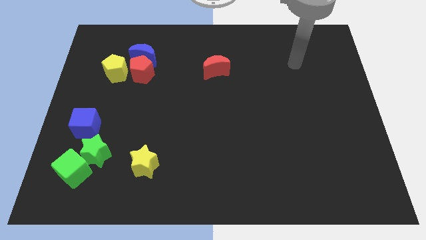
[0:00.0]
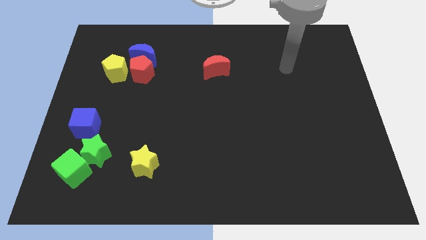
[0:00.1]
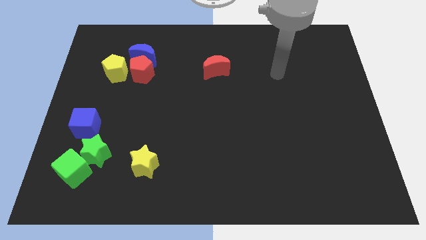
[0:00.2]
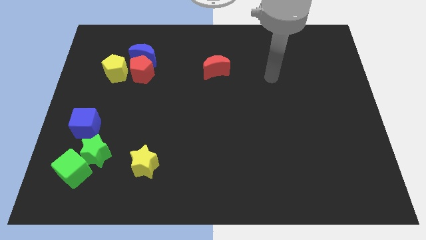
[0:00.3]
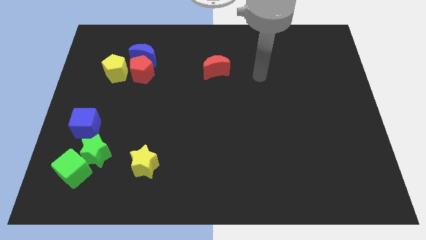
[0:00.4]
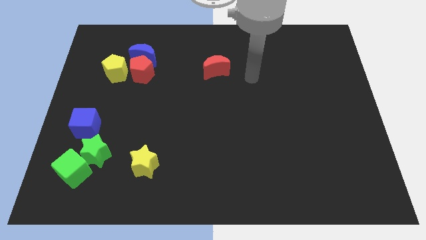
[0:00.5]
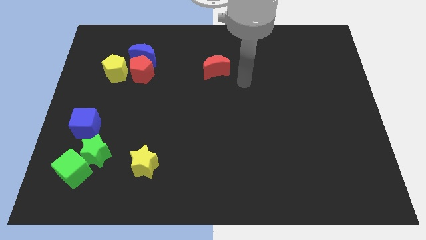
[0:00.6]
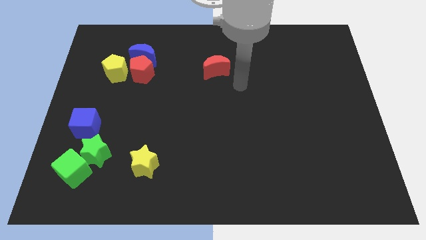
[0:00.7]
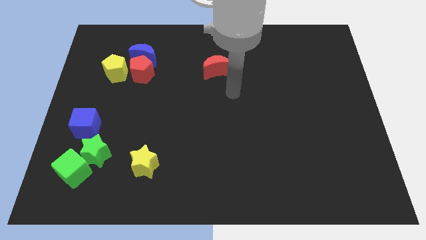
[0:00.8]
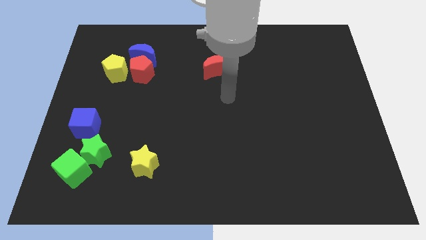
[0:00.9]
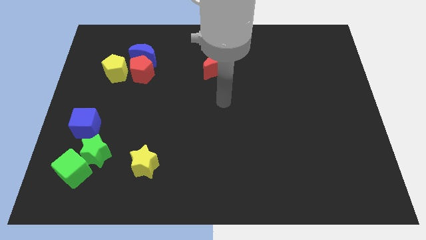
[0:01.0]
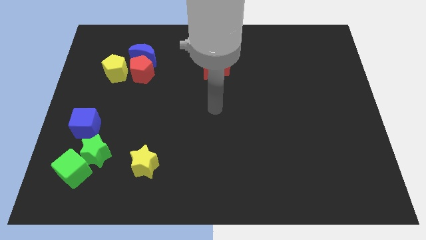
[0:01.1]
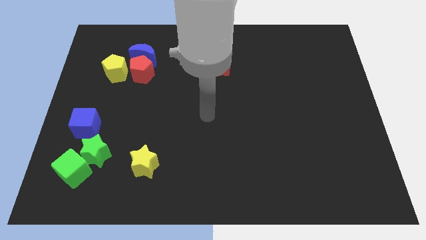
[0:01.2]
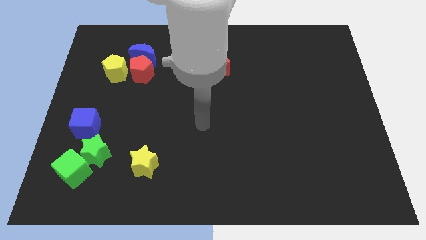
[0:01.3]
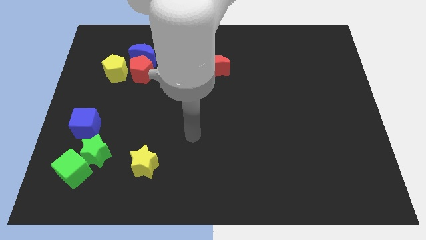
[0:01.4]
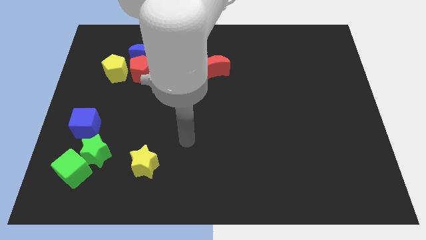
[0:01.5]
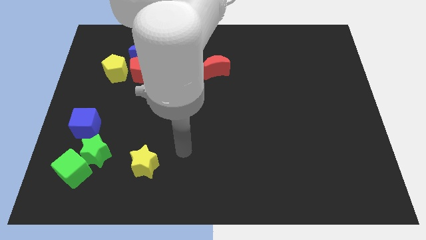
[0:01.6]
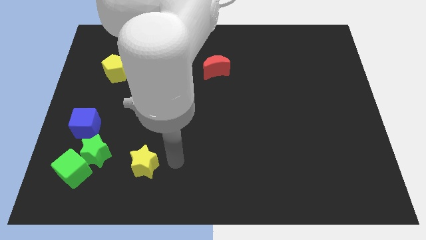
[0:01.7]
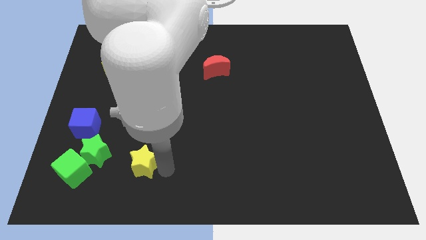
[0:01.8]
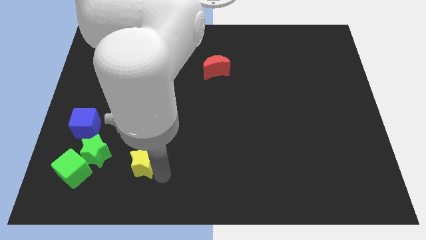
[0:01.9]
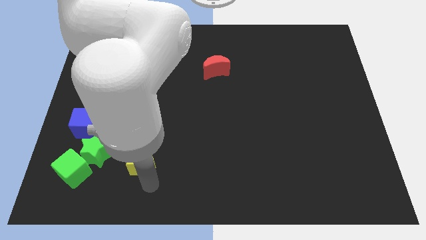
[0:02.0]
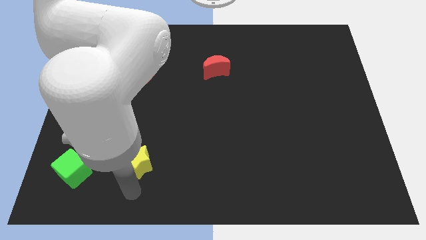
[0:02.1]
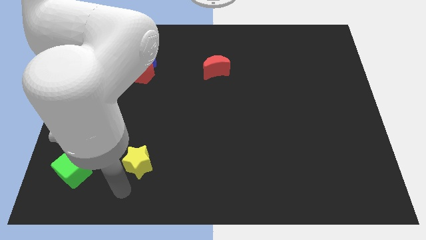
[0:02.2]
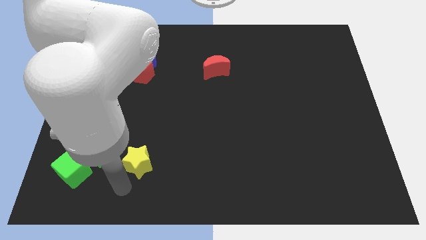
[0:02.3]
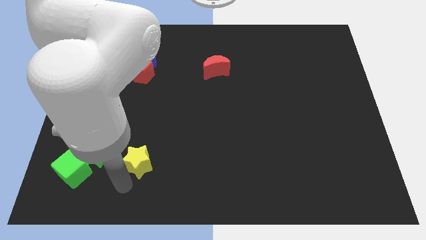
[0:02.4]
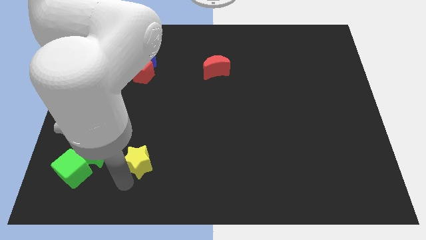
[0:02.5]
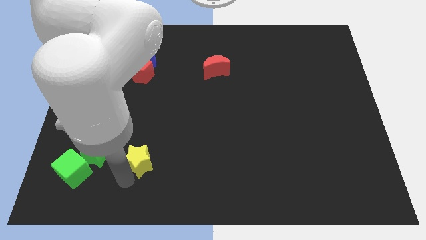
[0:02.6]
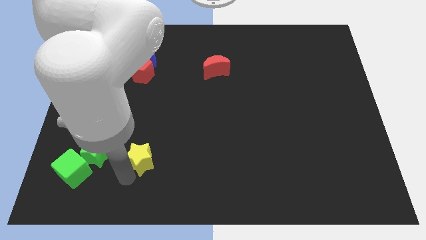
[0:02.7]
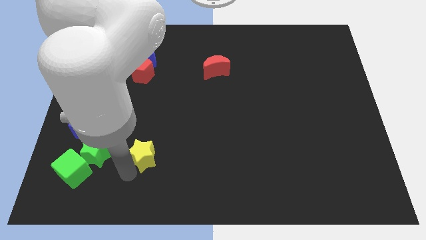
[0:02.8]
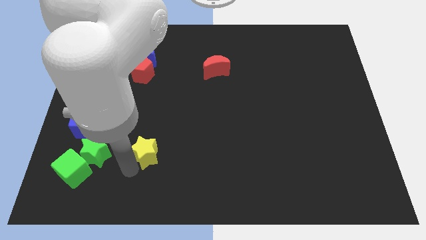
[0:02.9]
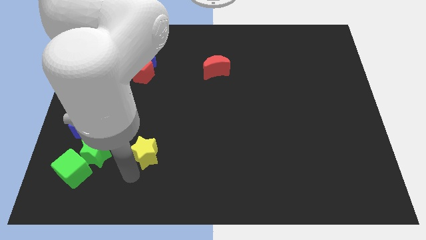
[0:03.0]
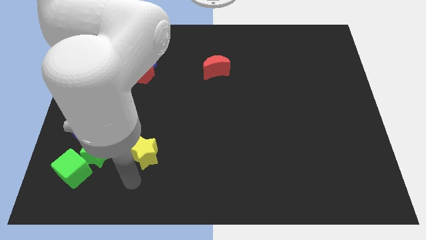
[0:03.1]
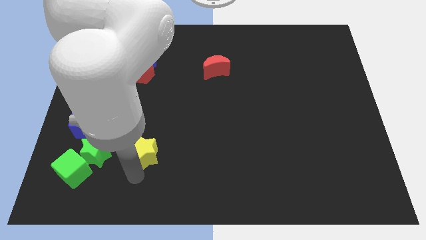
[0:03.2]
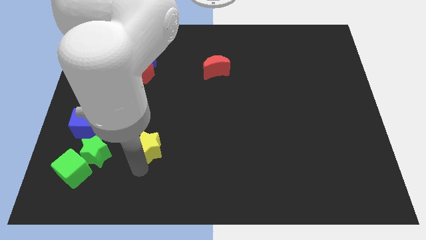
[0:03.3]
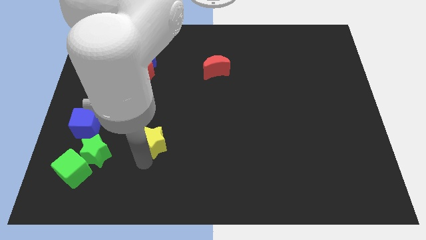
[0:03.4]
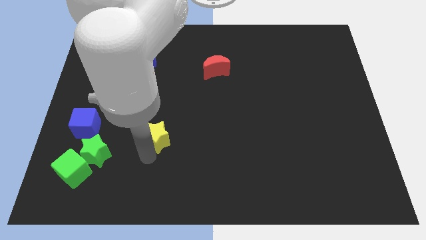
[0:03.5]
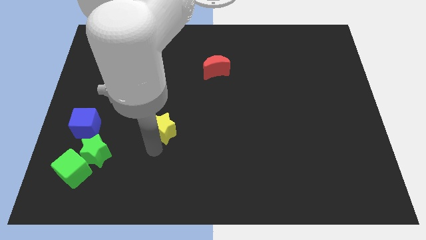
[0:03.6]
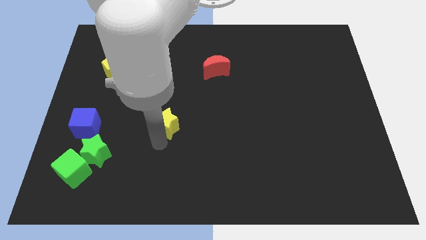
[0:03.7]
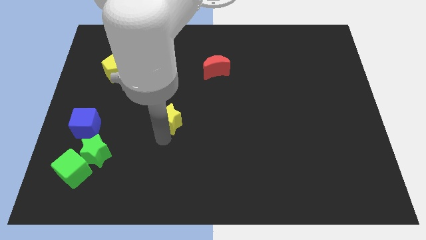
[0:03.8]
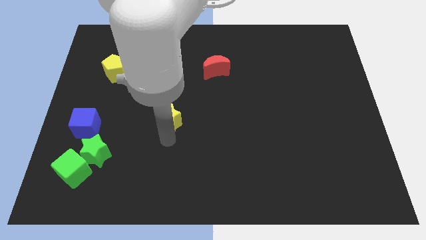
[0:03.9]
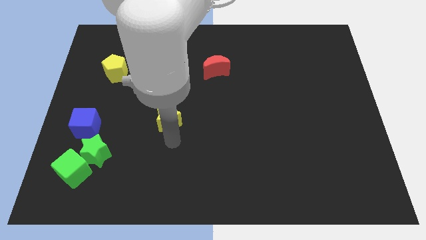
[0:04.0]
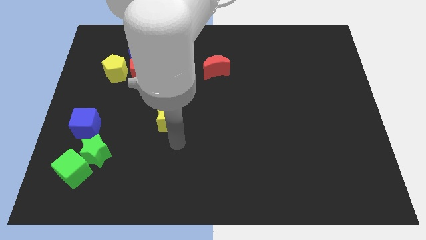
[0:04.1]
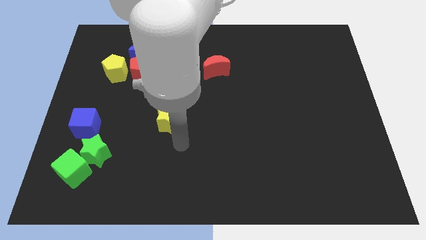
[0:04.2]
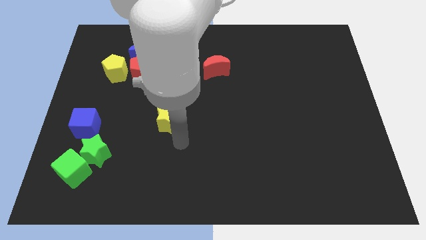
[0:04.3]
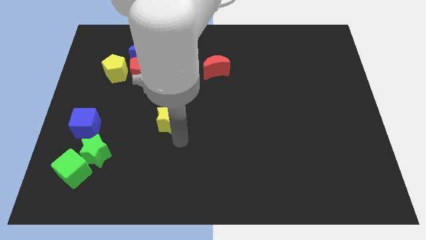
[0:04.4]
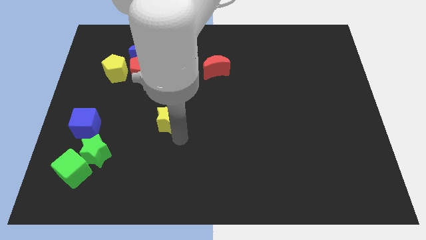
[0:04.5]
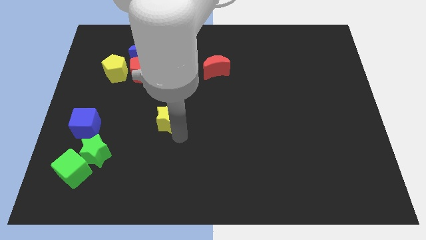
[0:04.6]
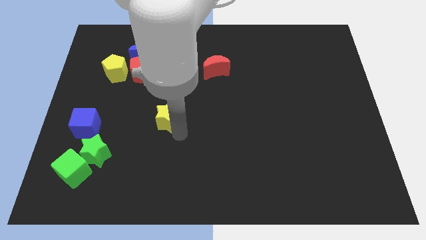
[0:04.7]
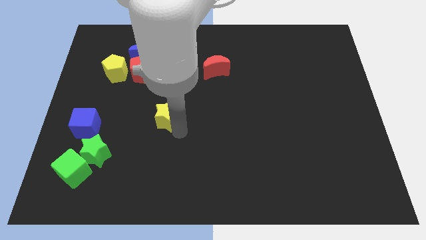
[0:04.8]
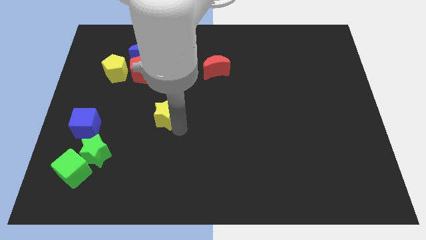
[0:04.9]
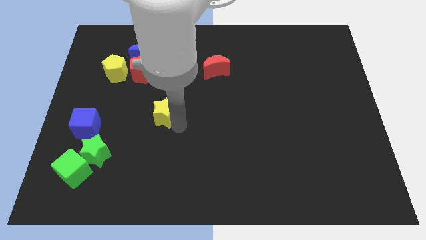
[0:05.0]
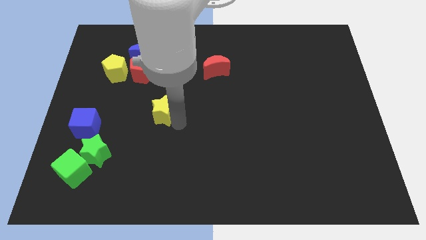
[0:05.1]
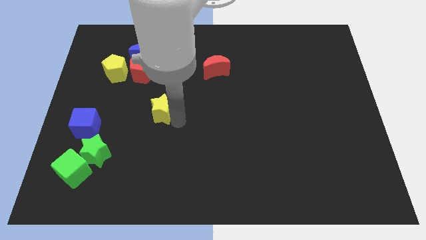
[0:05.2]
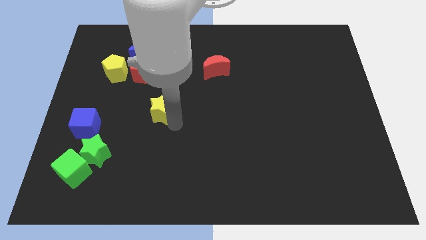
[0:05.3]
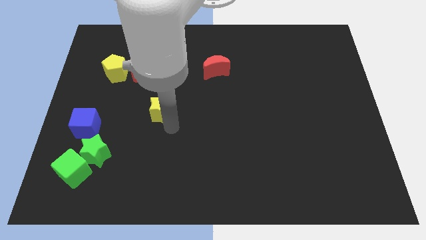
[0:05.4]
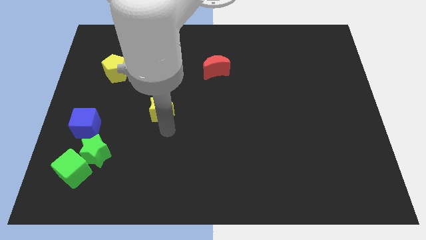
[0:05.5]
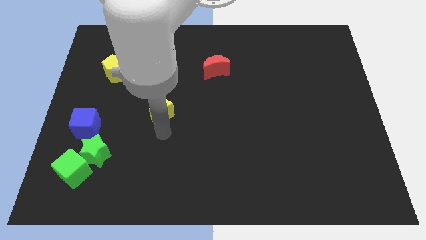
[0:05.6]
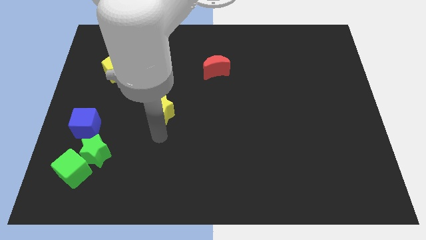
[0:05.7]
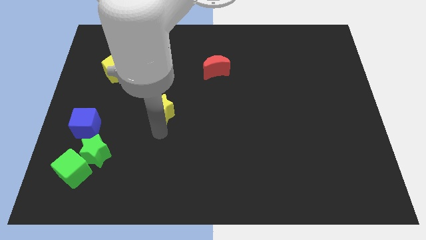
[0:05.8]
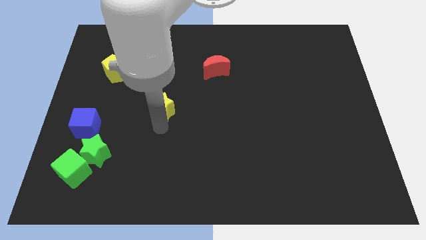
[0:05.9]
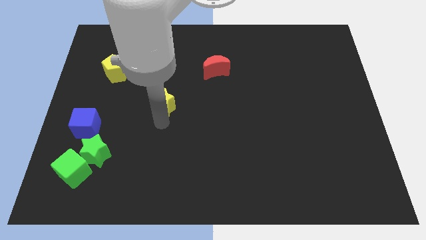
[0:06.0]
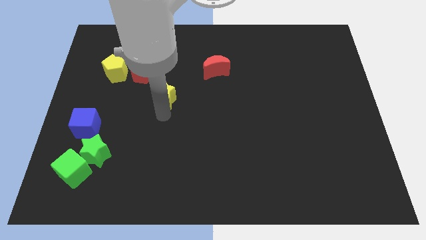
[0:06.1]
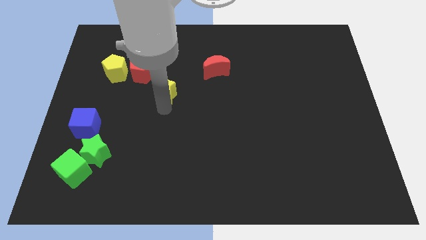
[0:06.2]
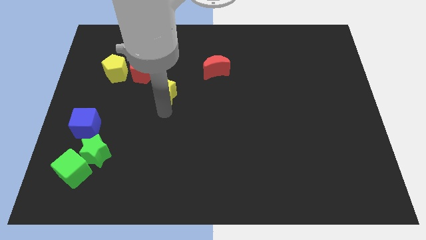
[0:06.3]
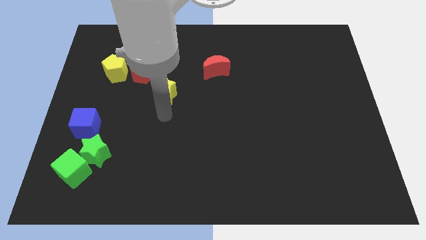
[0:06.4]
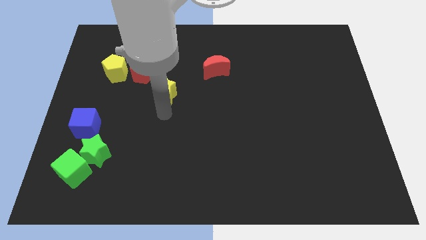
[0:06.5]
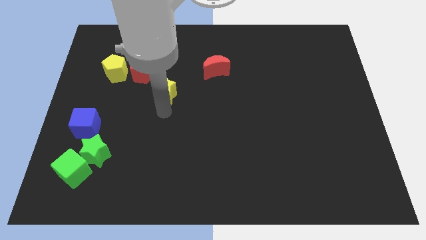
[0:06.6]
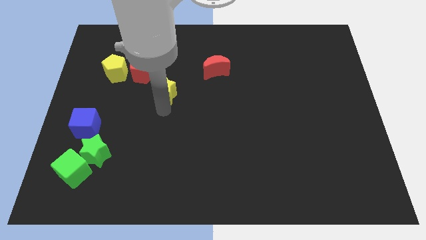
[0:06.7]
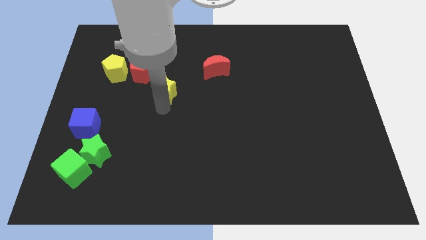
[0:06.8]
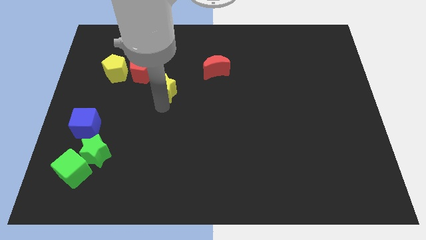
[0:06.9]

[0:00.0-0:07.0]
slide the yellow star upwards

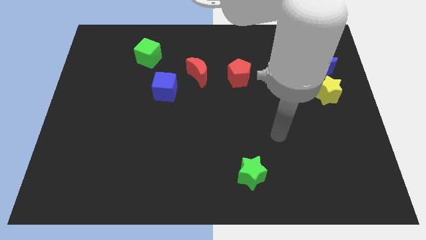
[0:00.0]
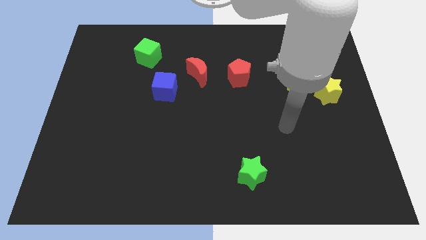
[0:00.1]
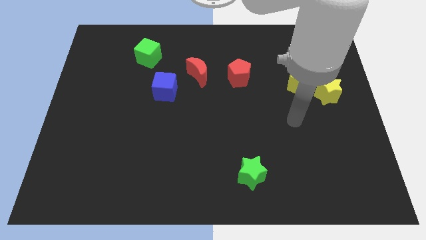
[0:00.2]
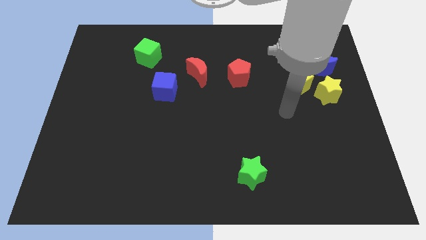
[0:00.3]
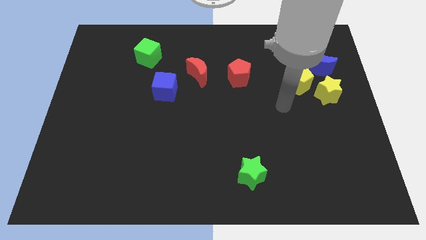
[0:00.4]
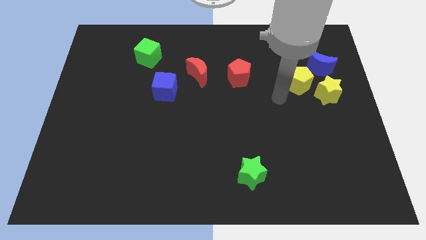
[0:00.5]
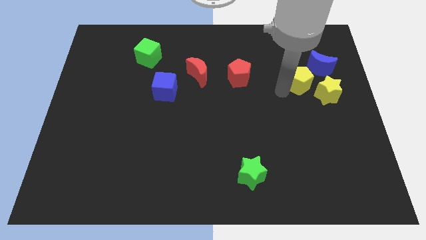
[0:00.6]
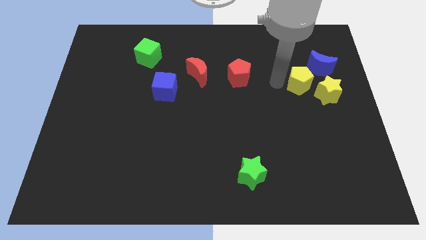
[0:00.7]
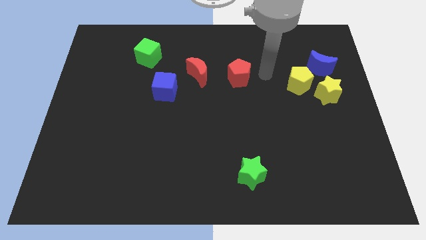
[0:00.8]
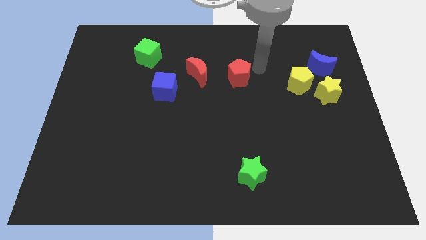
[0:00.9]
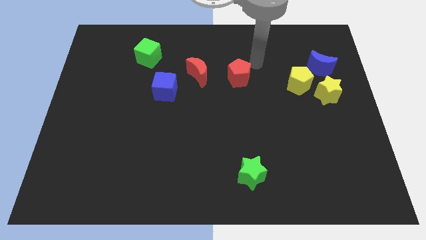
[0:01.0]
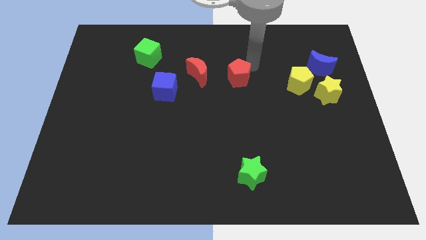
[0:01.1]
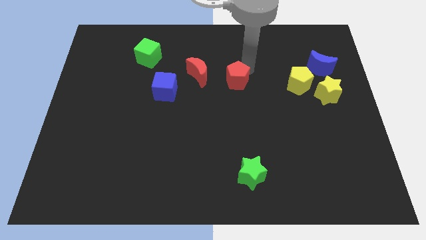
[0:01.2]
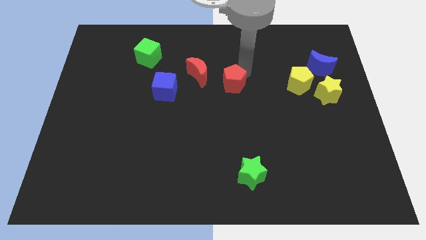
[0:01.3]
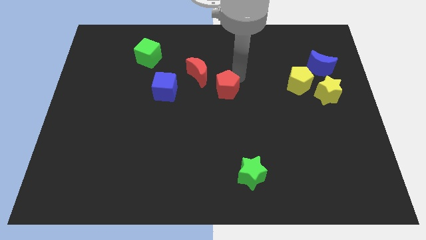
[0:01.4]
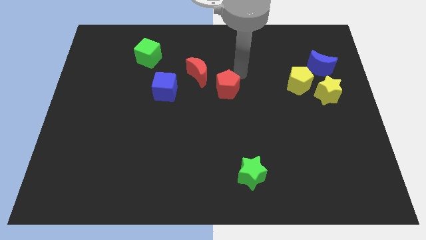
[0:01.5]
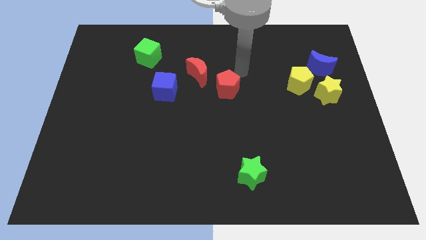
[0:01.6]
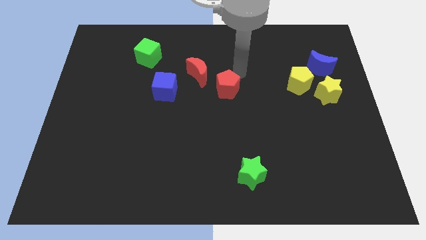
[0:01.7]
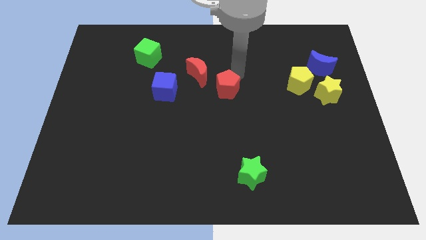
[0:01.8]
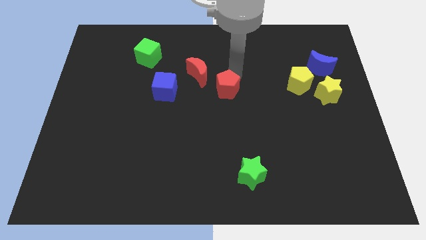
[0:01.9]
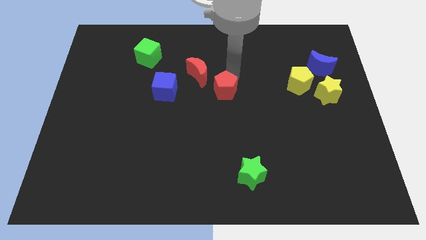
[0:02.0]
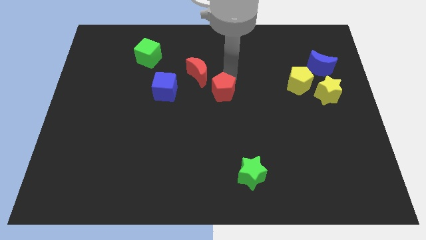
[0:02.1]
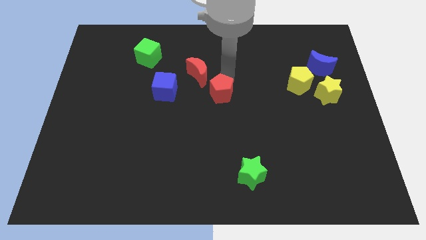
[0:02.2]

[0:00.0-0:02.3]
move the red pentagon a little downwards and left diagonally
